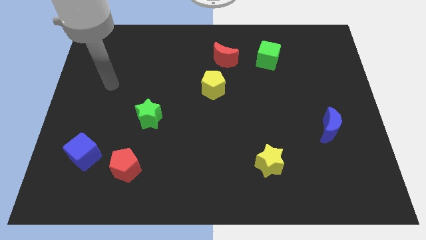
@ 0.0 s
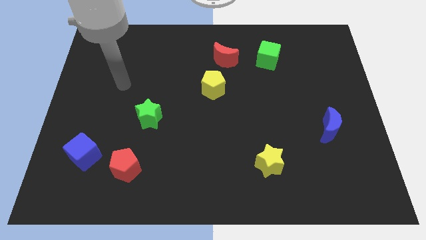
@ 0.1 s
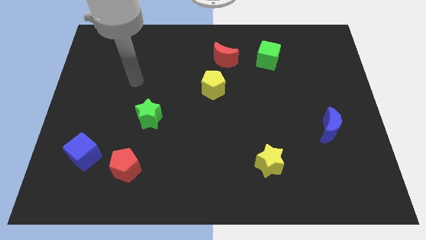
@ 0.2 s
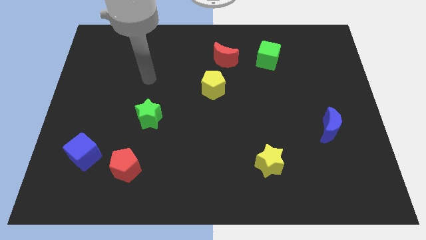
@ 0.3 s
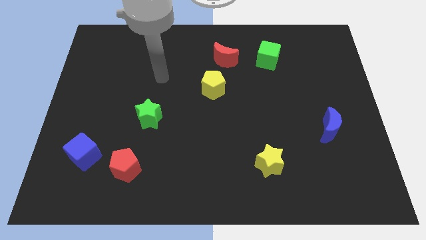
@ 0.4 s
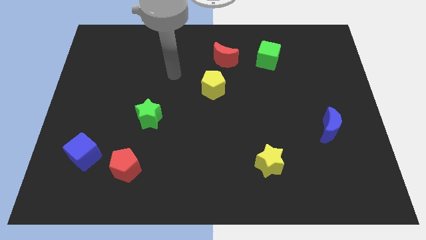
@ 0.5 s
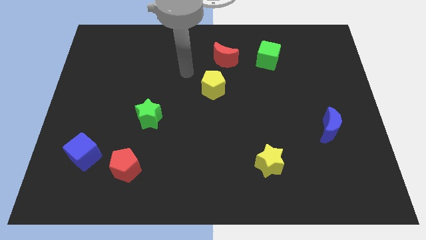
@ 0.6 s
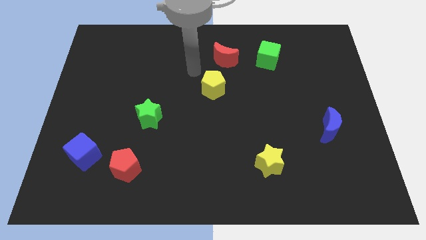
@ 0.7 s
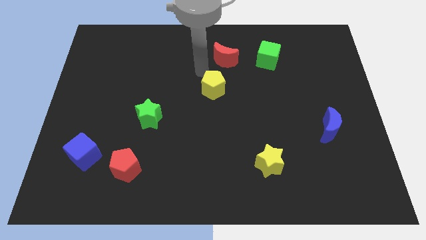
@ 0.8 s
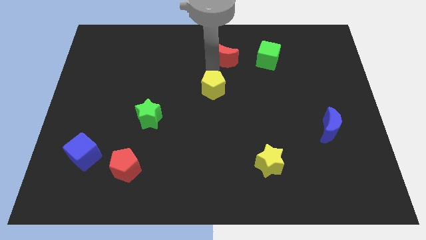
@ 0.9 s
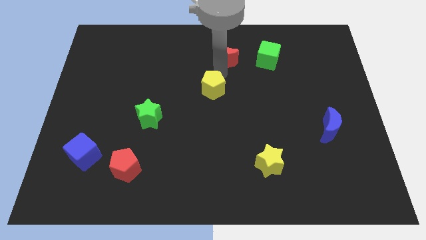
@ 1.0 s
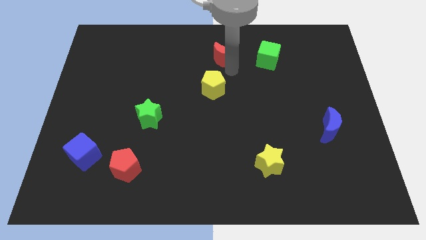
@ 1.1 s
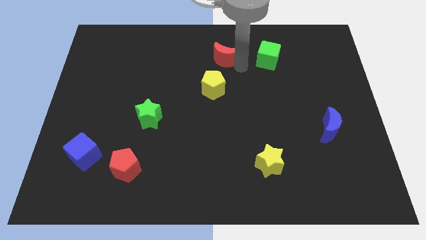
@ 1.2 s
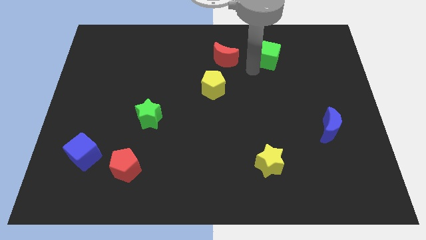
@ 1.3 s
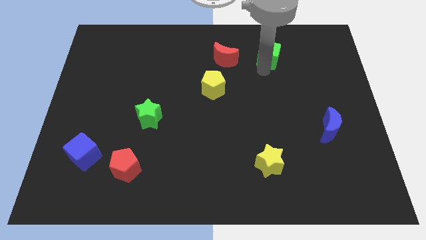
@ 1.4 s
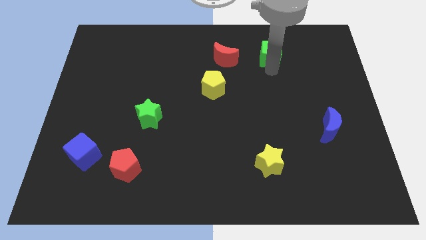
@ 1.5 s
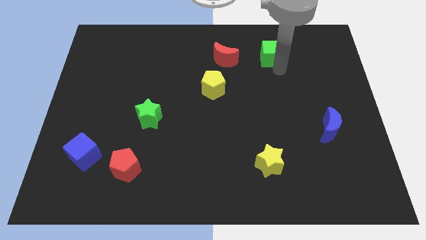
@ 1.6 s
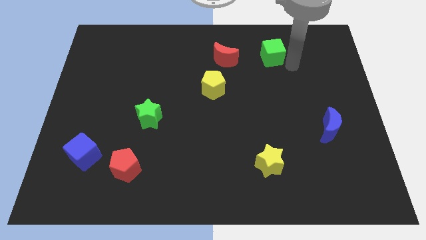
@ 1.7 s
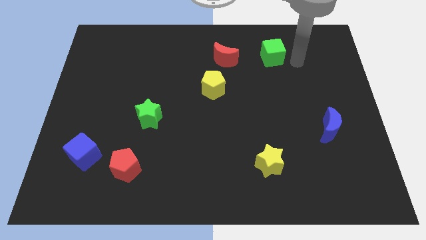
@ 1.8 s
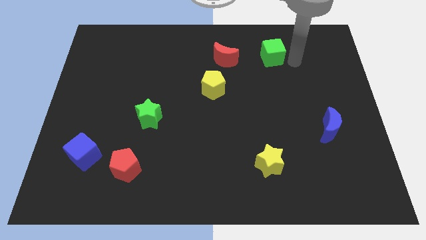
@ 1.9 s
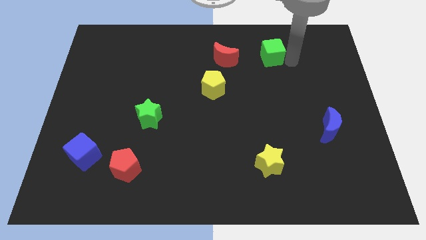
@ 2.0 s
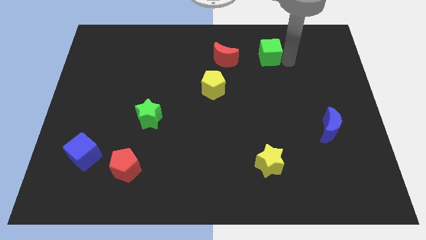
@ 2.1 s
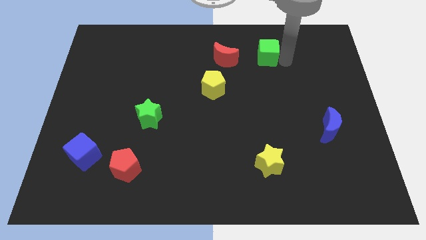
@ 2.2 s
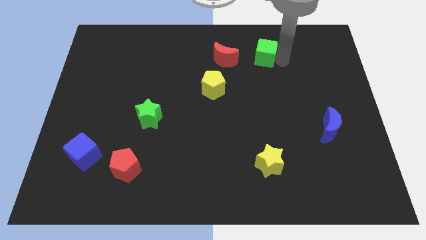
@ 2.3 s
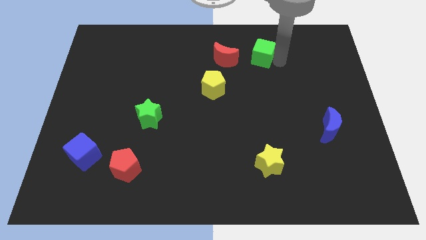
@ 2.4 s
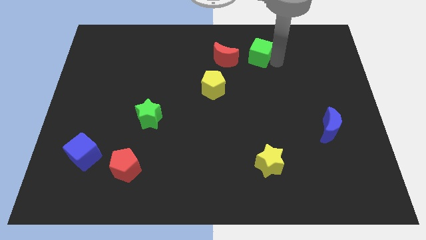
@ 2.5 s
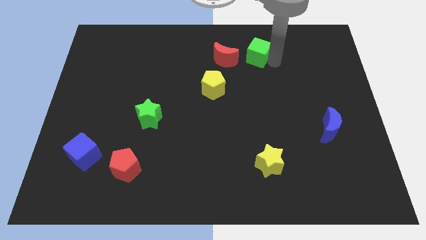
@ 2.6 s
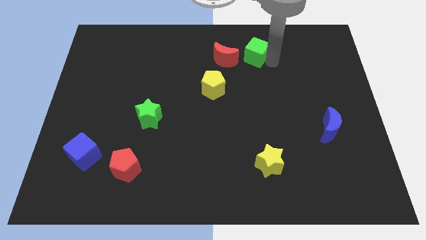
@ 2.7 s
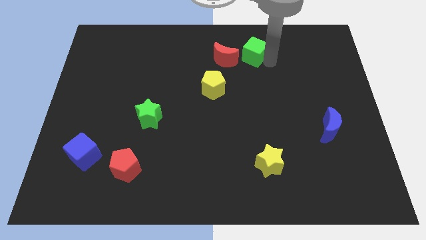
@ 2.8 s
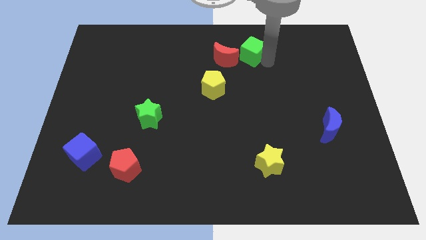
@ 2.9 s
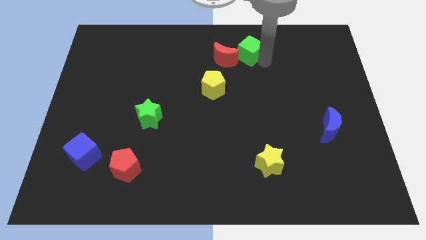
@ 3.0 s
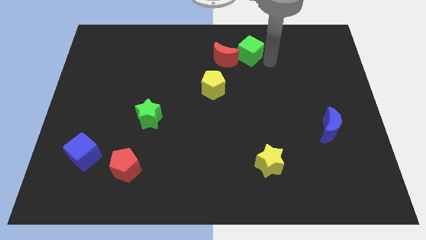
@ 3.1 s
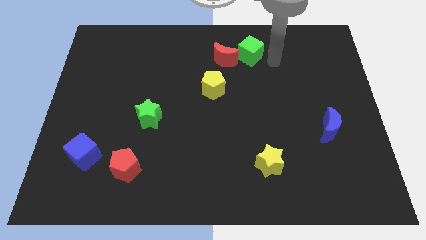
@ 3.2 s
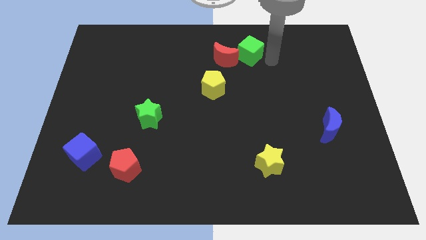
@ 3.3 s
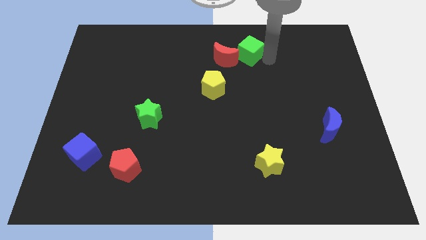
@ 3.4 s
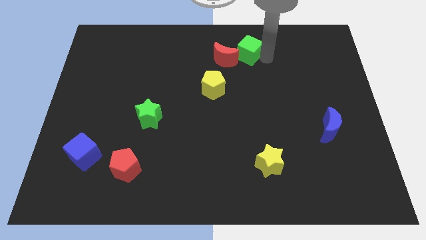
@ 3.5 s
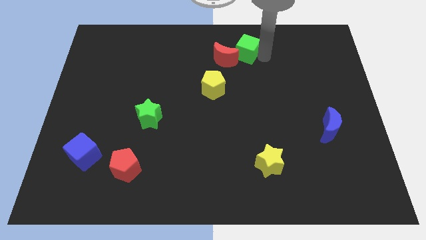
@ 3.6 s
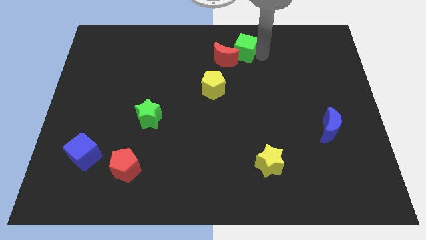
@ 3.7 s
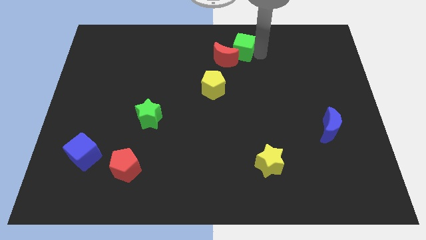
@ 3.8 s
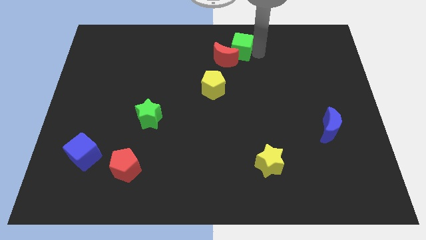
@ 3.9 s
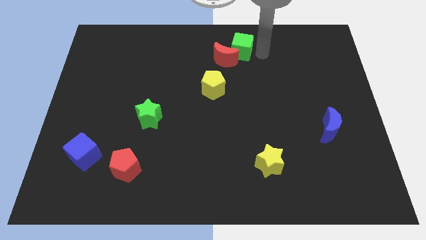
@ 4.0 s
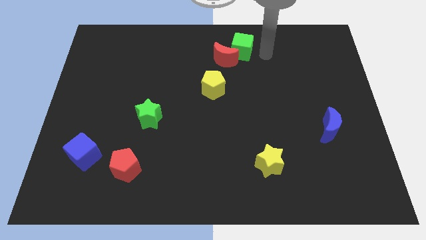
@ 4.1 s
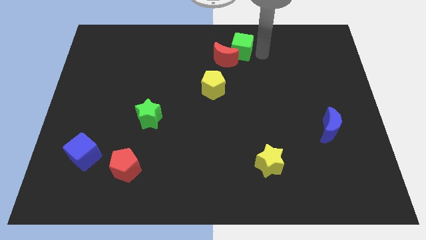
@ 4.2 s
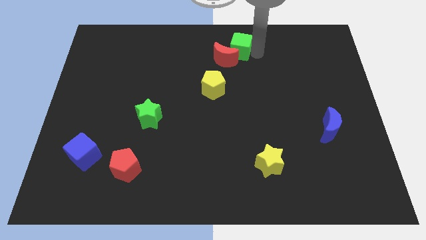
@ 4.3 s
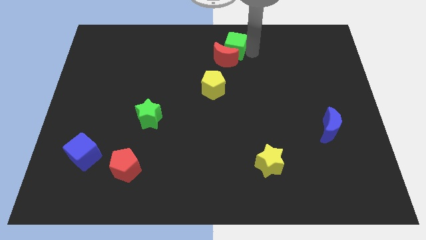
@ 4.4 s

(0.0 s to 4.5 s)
slightly slide the green cube to the left

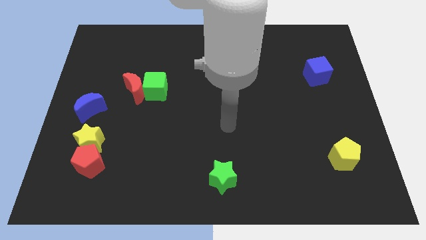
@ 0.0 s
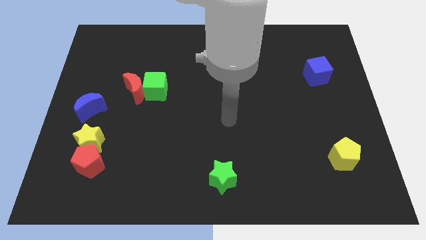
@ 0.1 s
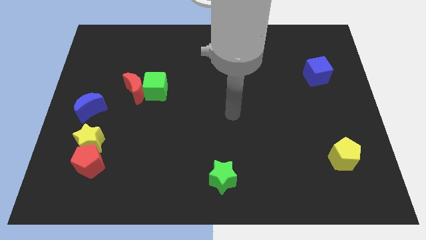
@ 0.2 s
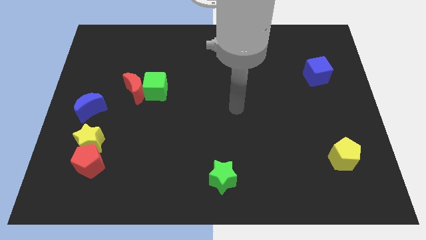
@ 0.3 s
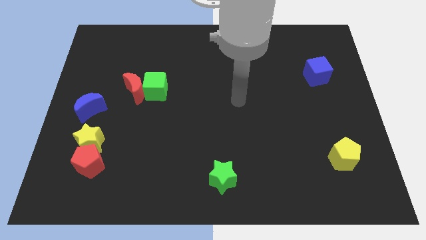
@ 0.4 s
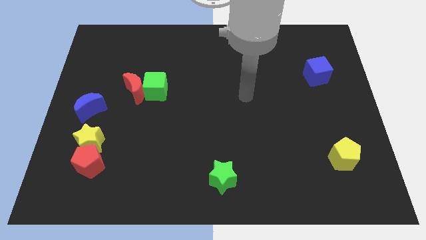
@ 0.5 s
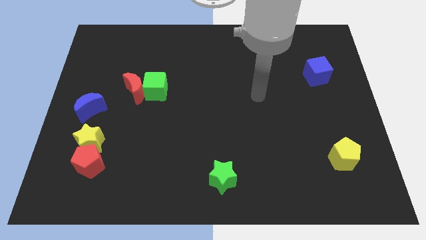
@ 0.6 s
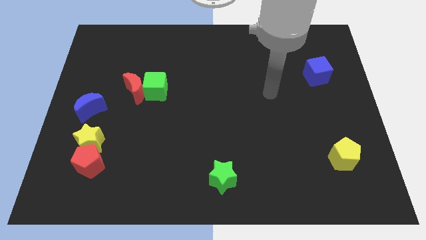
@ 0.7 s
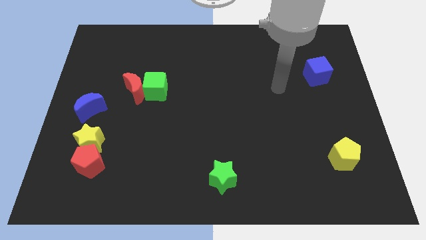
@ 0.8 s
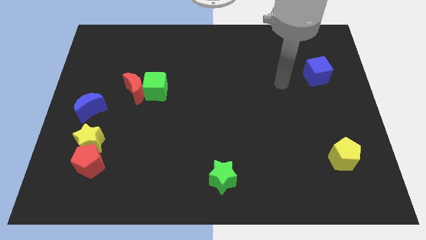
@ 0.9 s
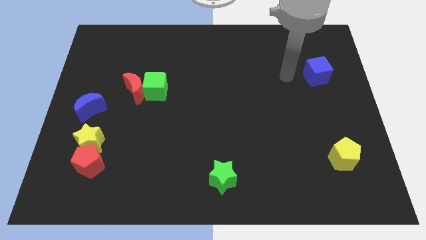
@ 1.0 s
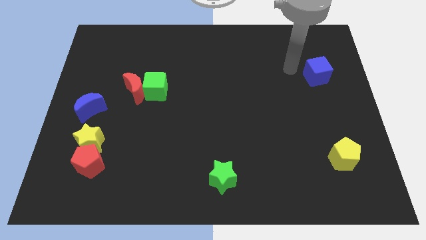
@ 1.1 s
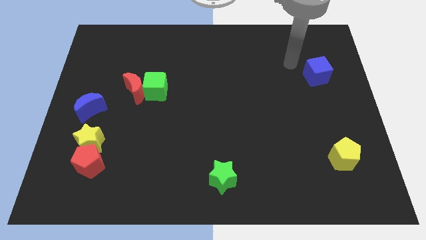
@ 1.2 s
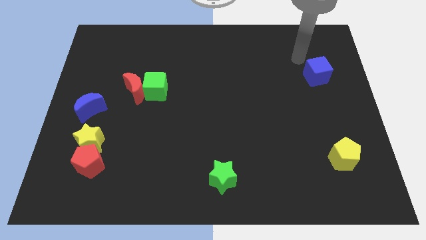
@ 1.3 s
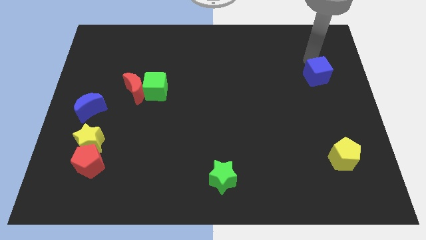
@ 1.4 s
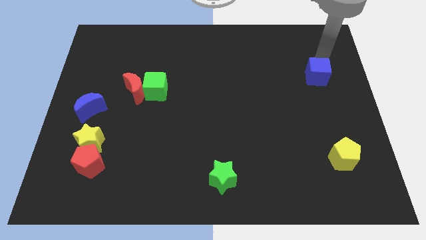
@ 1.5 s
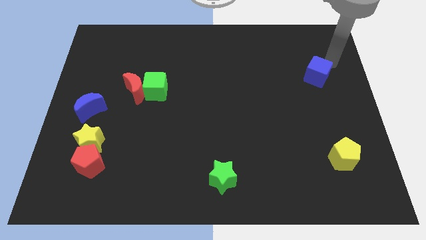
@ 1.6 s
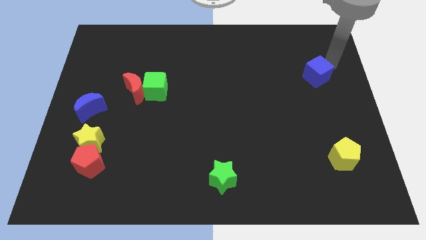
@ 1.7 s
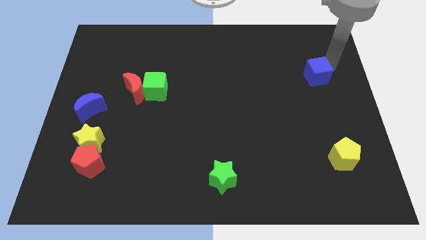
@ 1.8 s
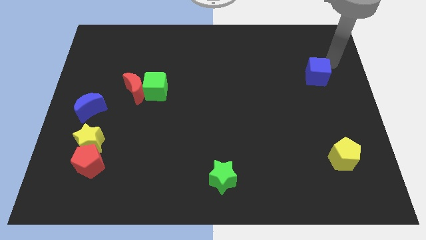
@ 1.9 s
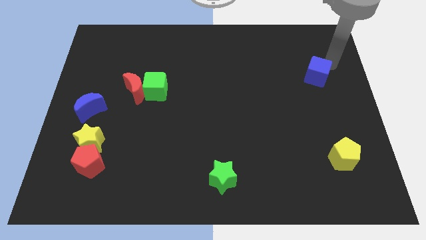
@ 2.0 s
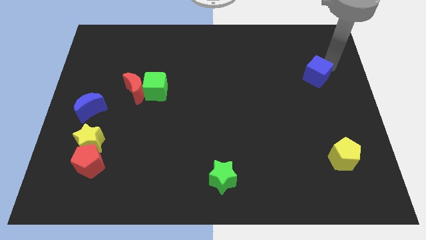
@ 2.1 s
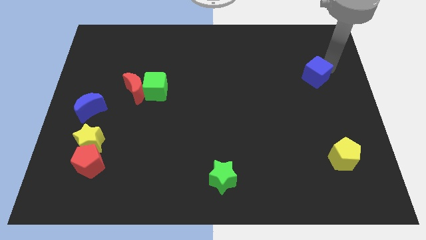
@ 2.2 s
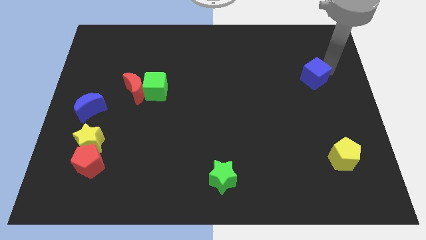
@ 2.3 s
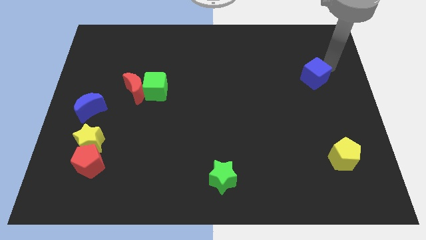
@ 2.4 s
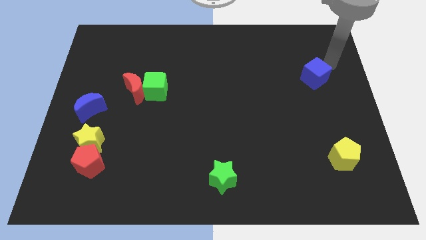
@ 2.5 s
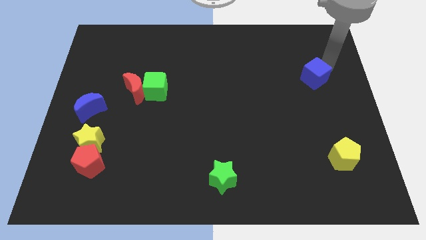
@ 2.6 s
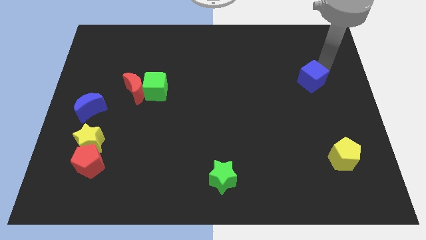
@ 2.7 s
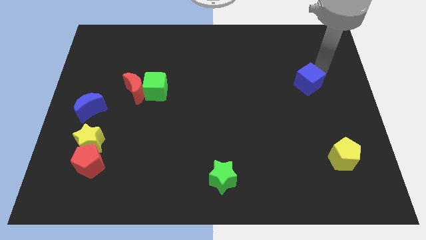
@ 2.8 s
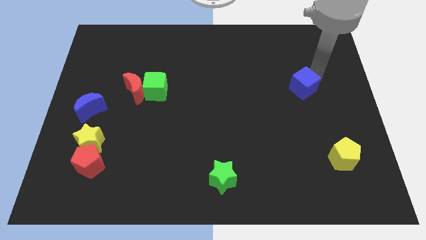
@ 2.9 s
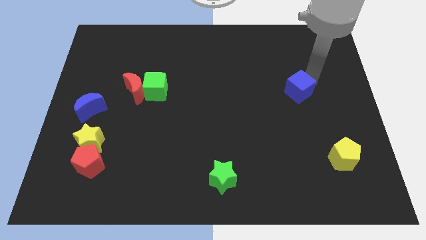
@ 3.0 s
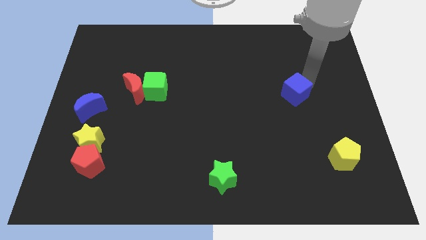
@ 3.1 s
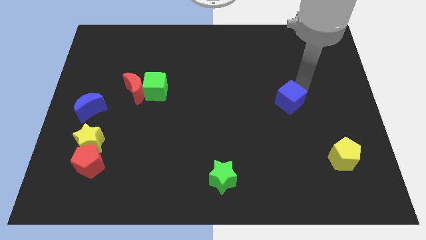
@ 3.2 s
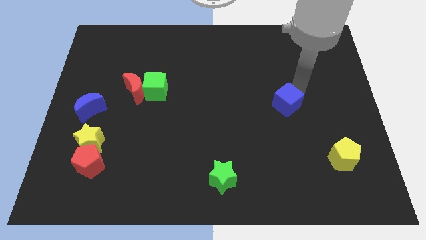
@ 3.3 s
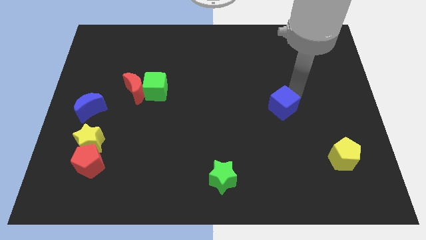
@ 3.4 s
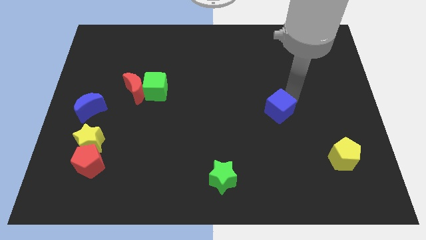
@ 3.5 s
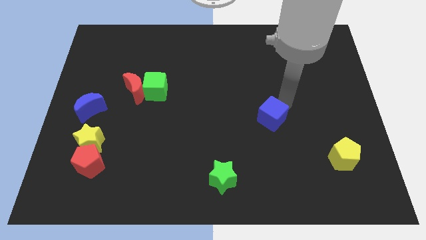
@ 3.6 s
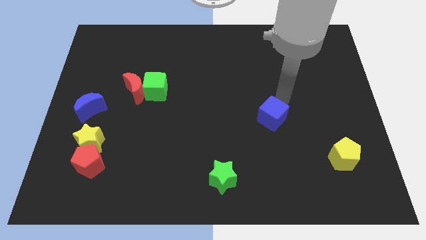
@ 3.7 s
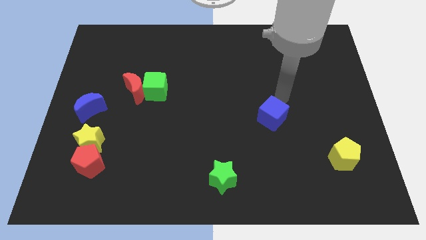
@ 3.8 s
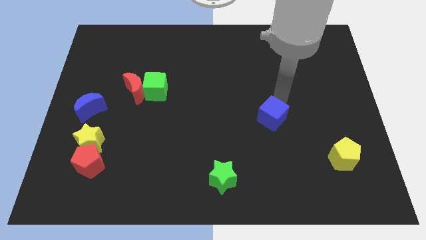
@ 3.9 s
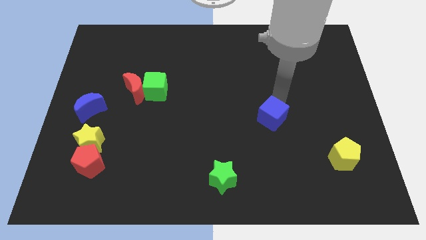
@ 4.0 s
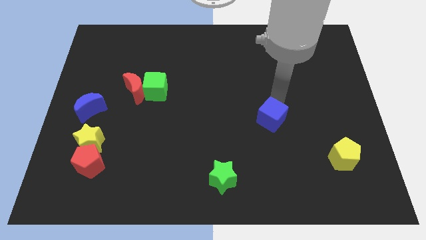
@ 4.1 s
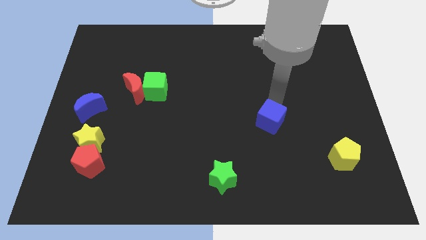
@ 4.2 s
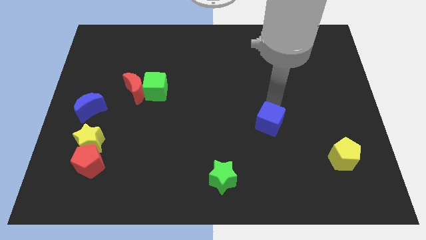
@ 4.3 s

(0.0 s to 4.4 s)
slide the blue cube downwards and then to the left
